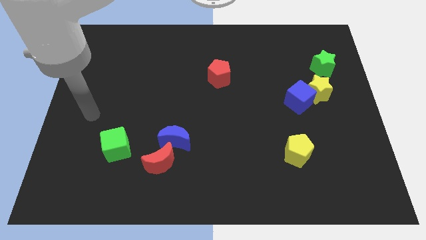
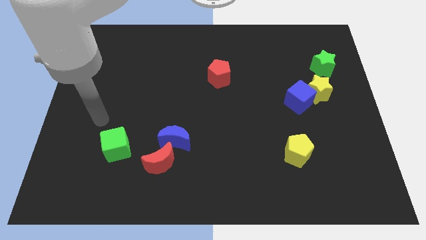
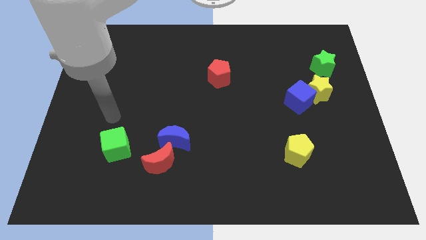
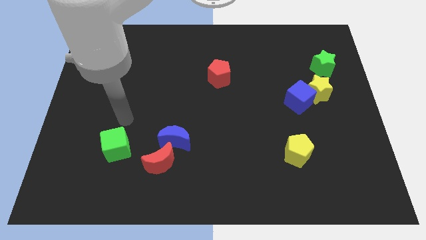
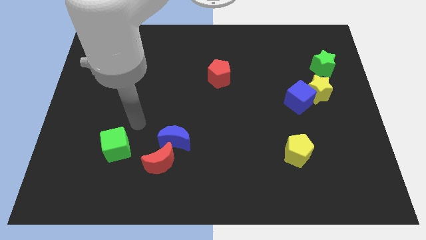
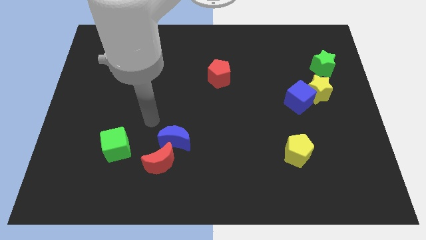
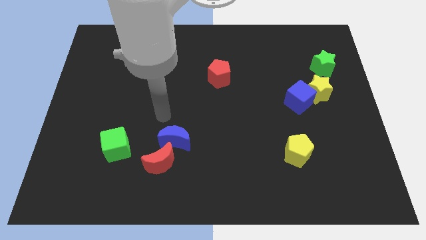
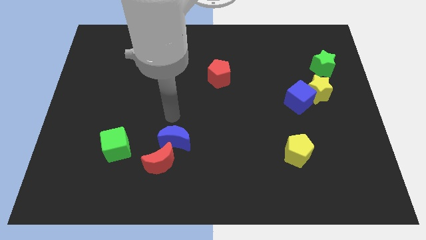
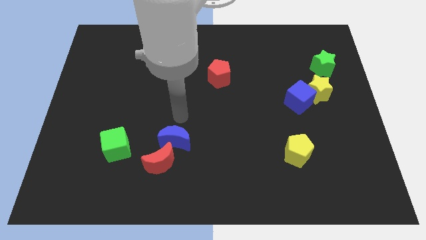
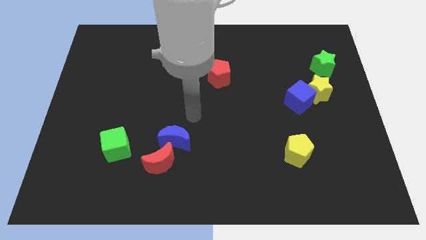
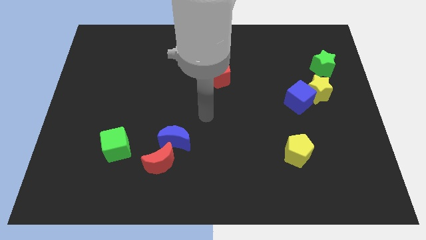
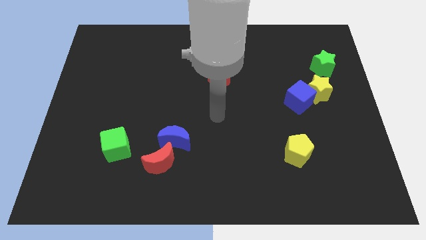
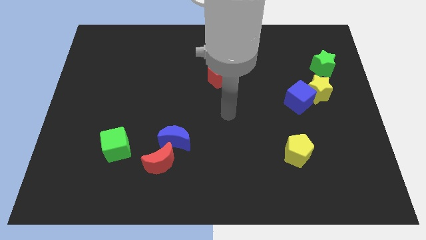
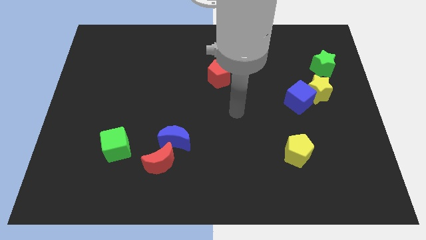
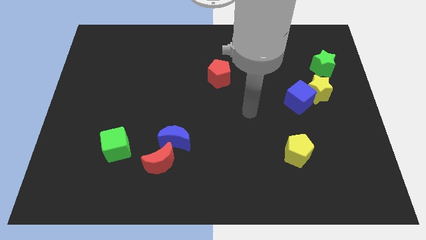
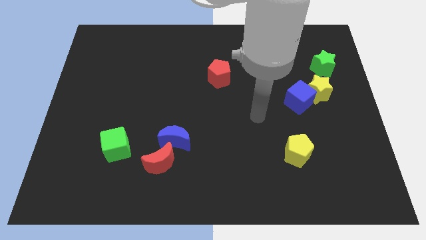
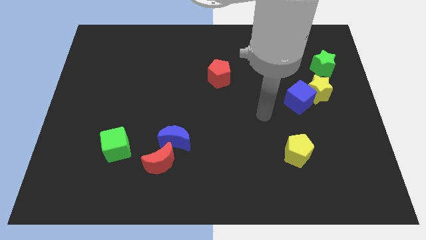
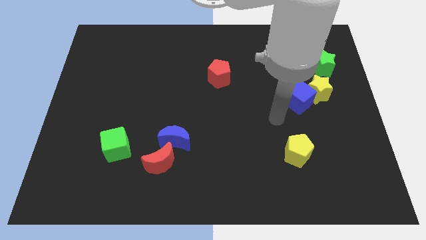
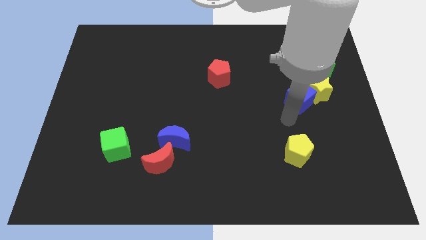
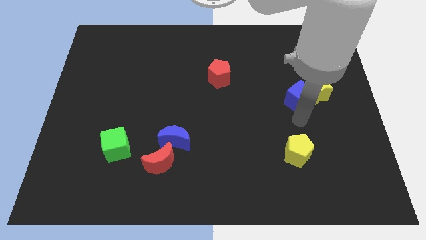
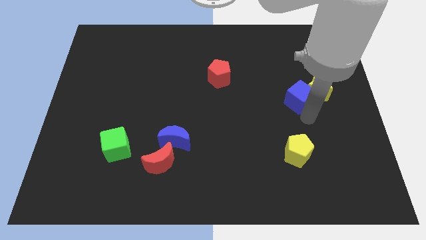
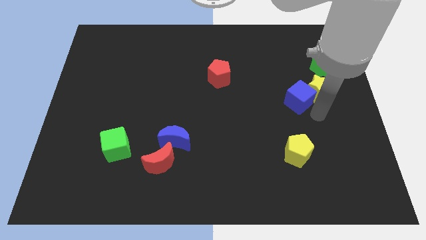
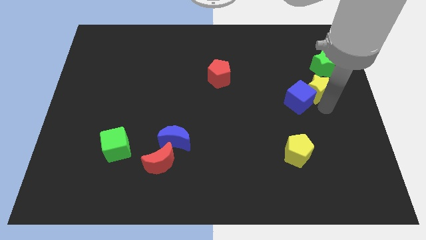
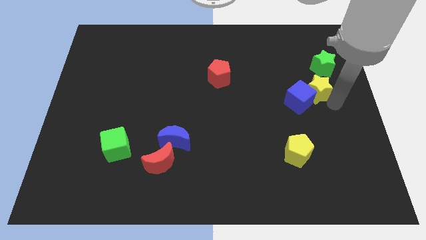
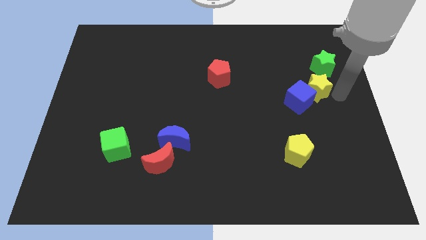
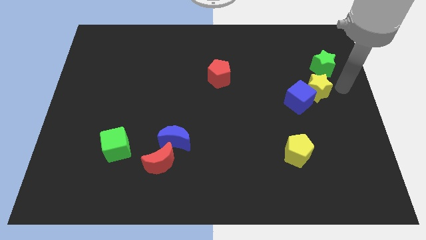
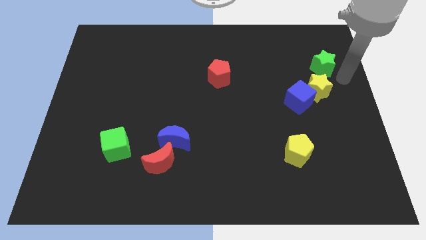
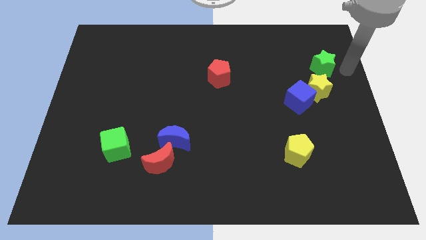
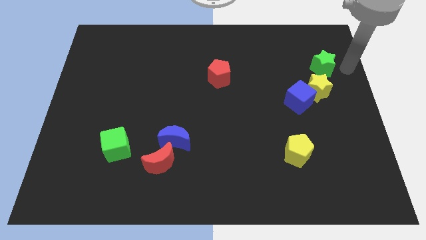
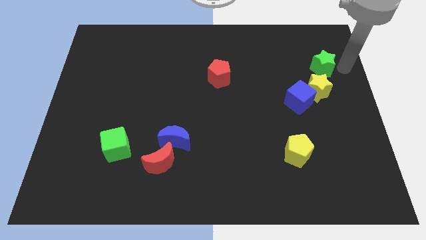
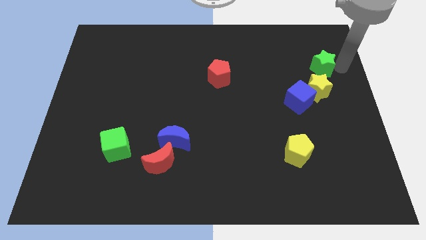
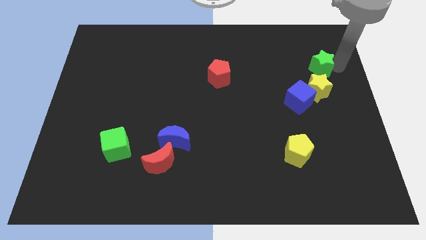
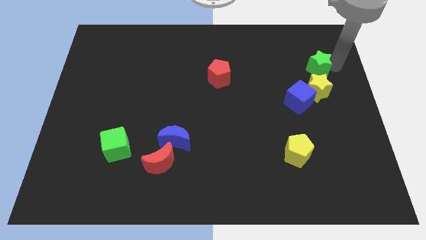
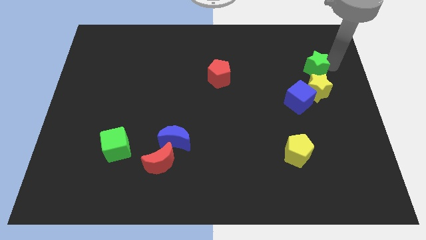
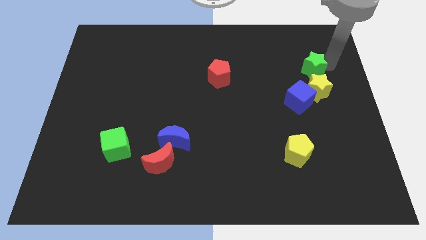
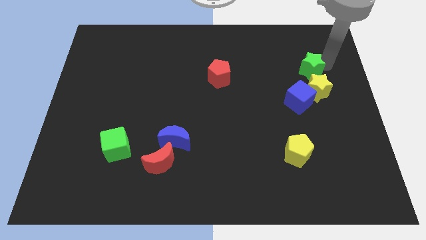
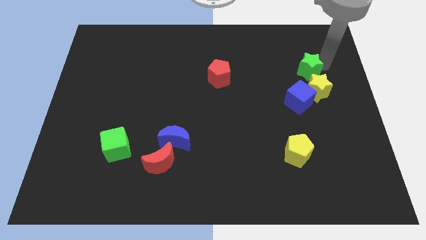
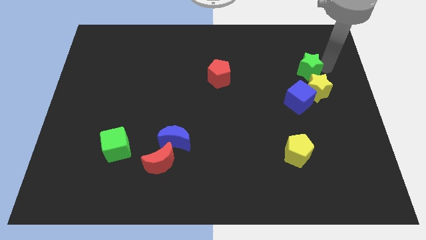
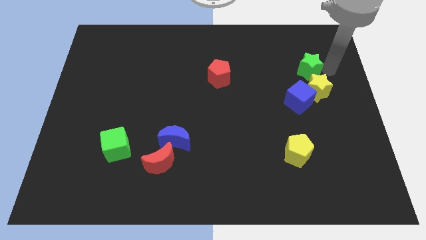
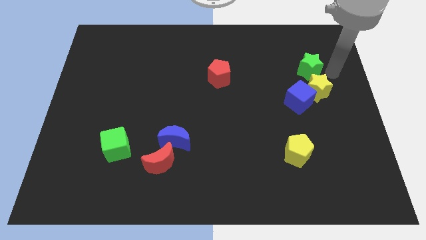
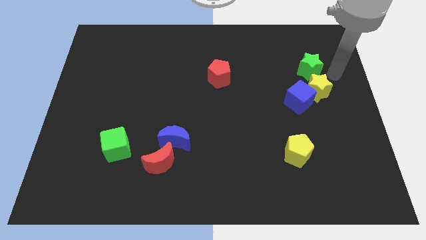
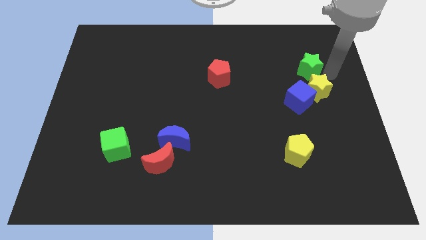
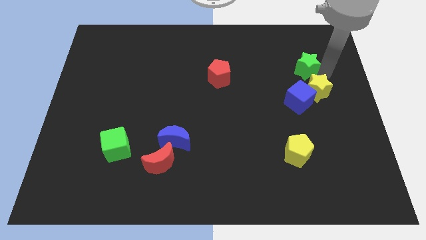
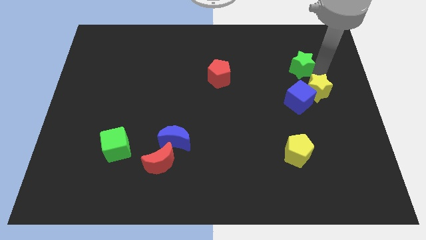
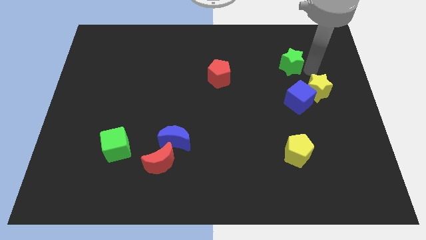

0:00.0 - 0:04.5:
move the green star slightly left

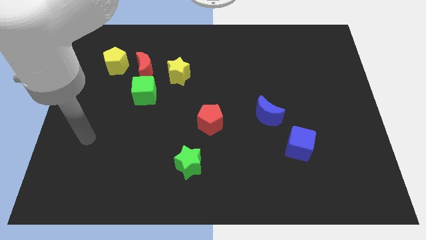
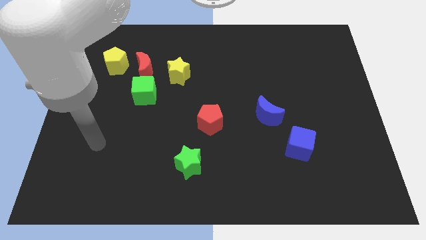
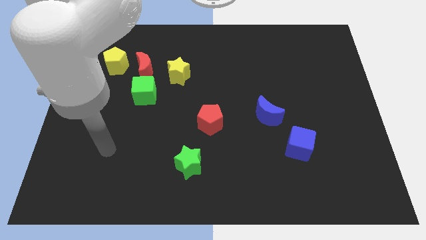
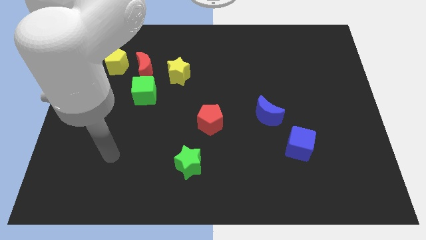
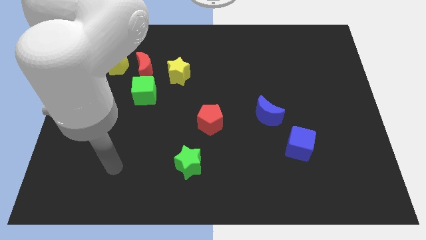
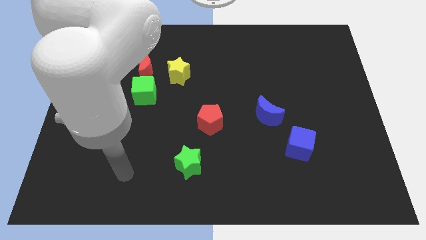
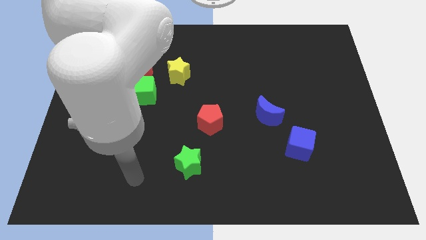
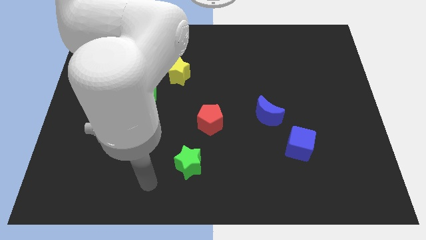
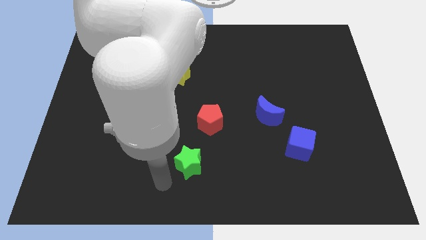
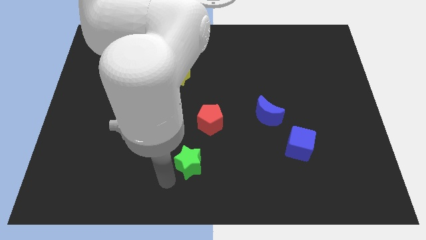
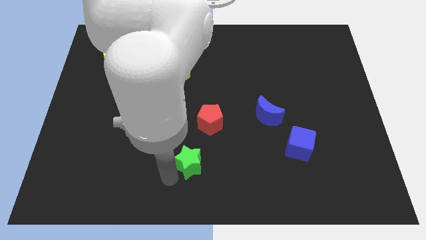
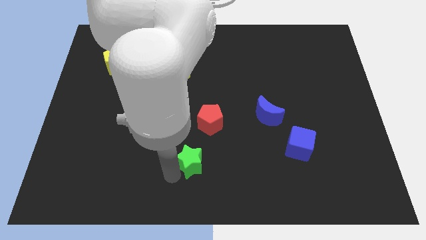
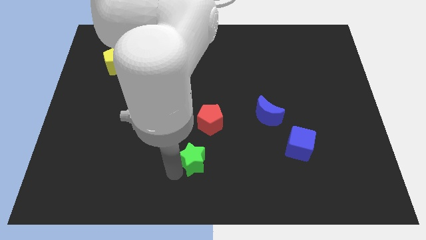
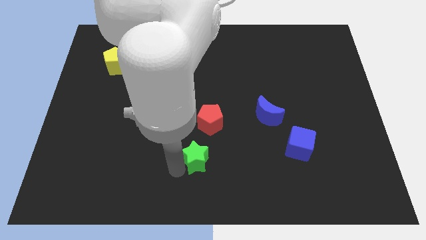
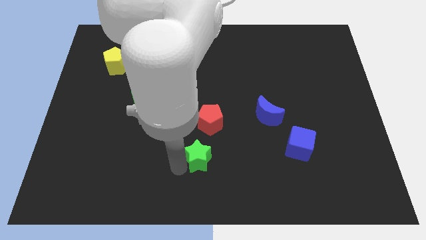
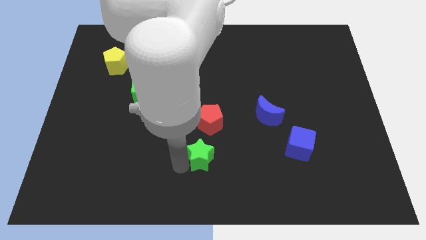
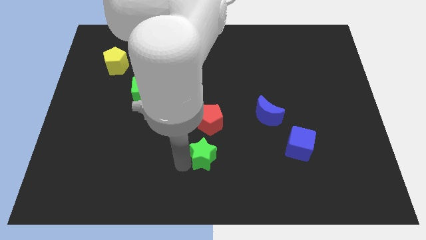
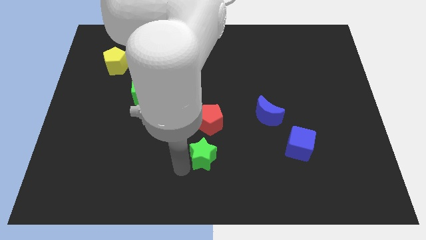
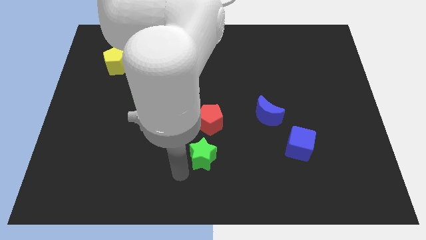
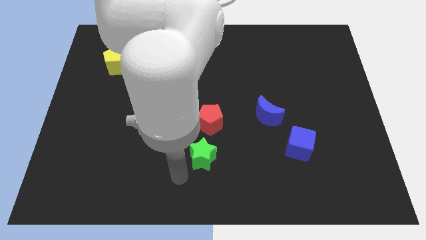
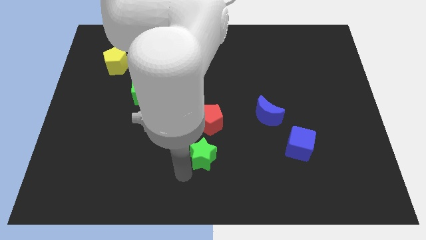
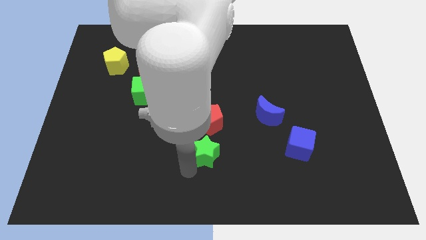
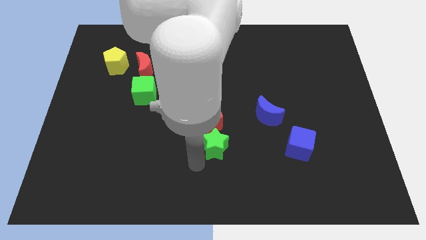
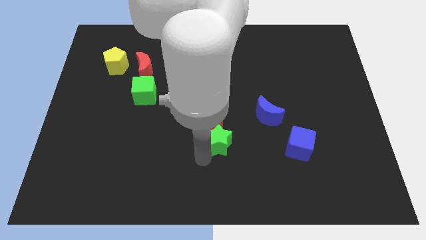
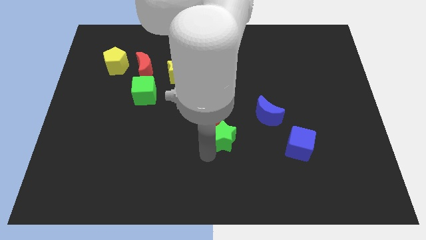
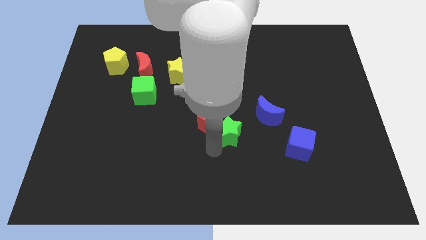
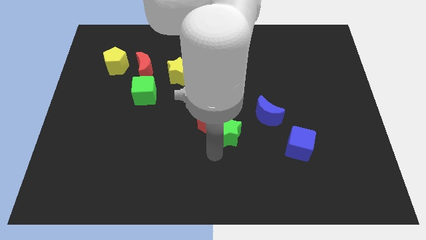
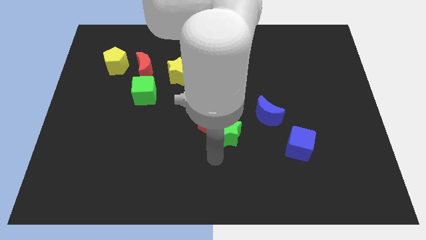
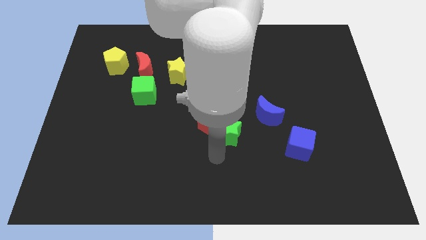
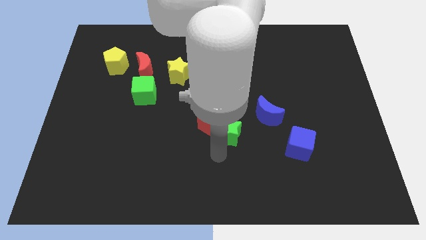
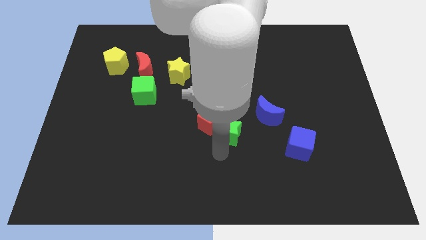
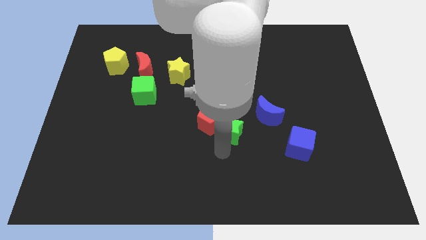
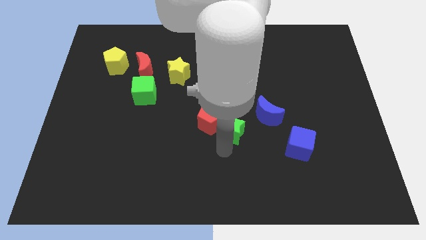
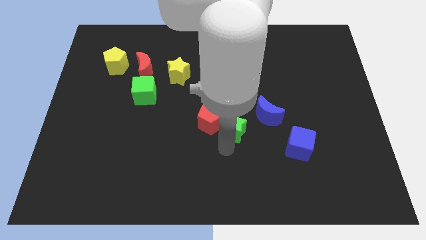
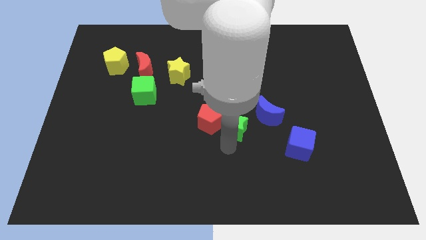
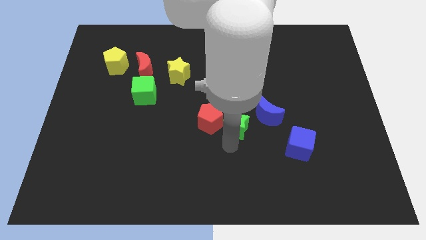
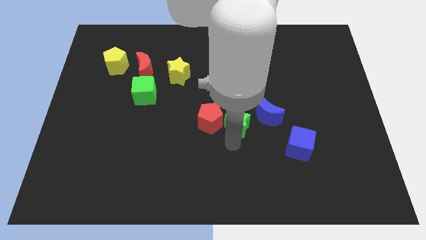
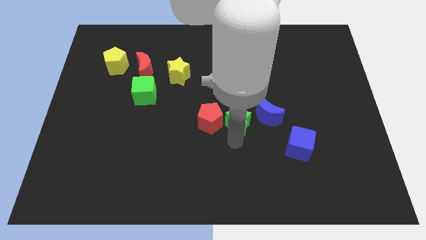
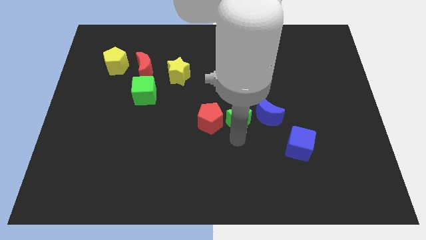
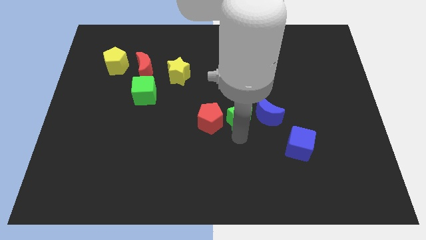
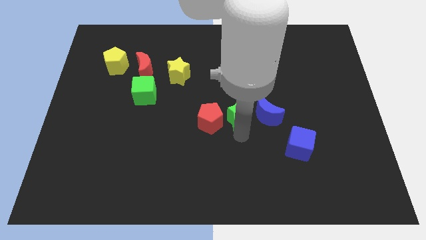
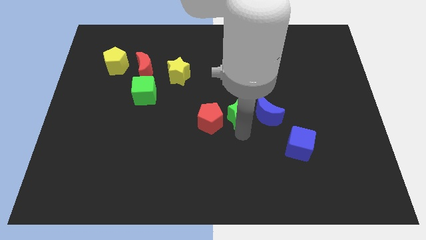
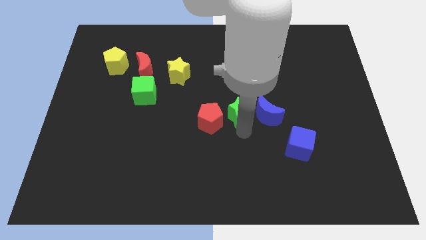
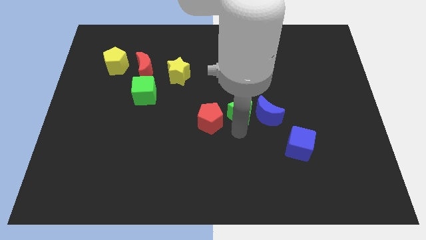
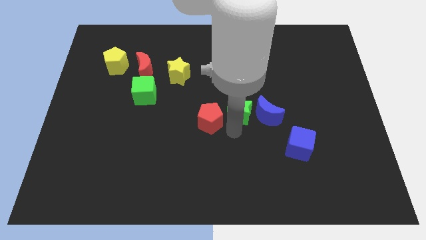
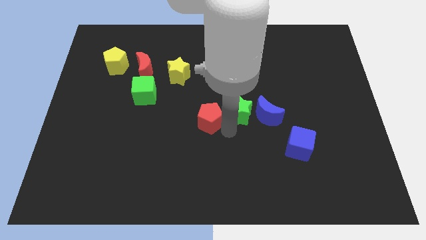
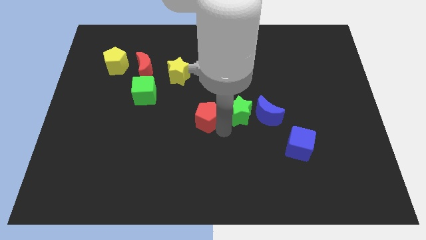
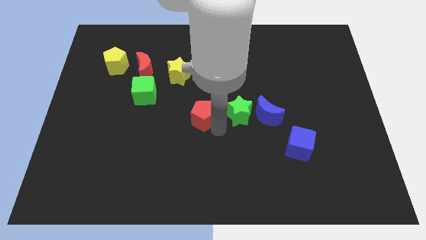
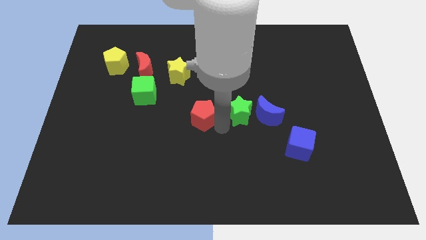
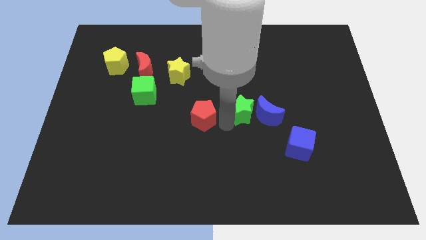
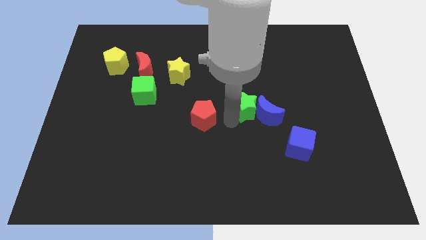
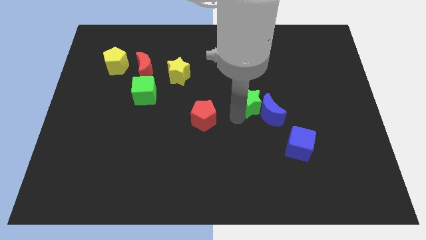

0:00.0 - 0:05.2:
push the green star upwards and right
